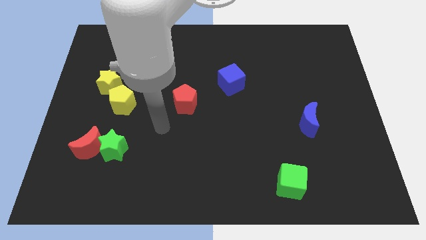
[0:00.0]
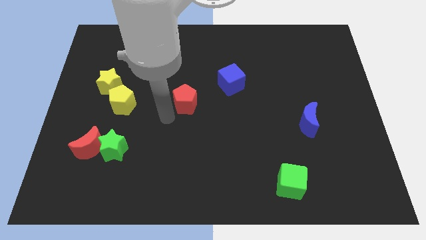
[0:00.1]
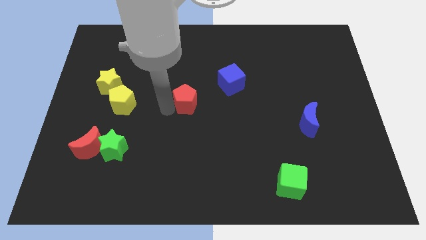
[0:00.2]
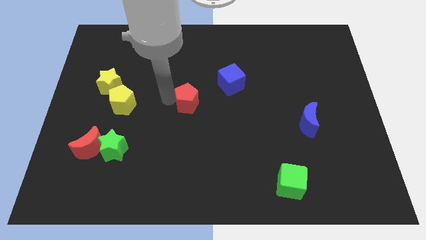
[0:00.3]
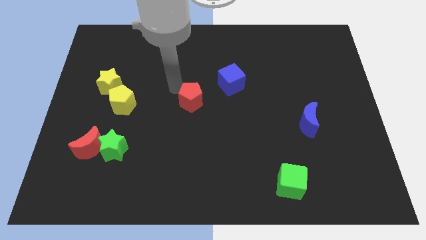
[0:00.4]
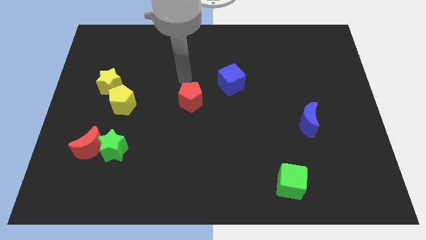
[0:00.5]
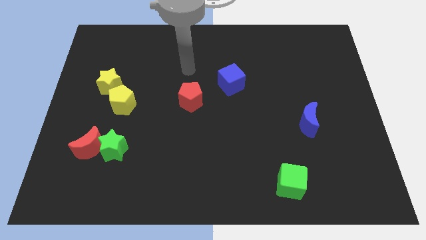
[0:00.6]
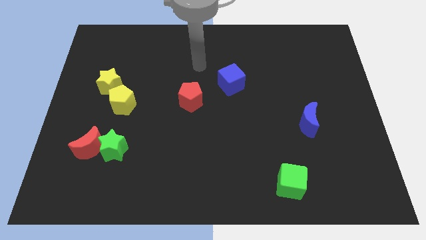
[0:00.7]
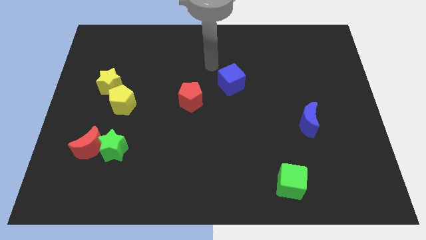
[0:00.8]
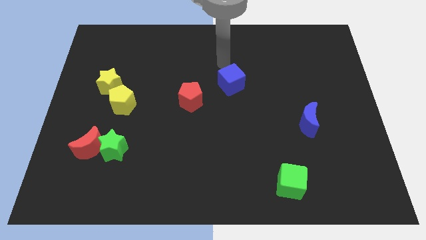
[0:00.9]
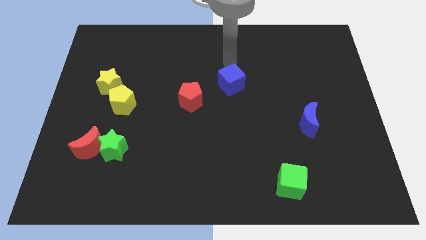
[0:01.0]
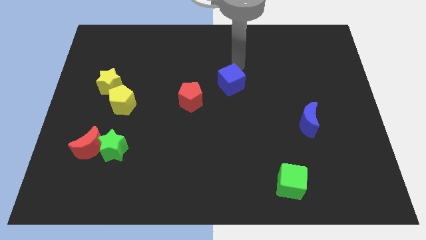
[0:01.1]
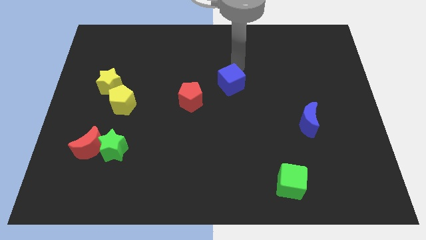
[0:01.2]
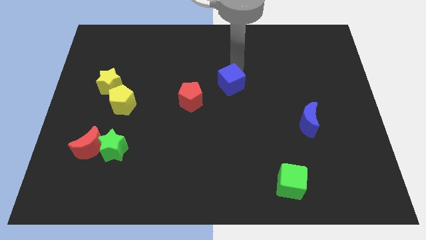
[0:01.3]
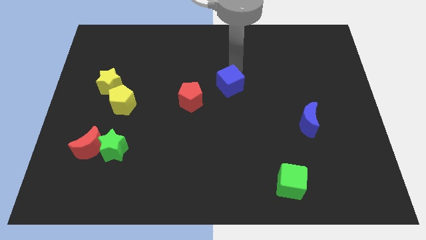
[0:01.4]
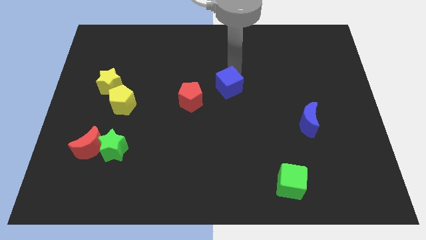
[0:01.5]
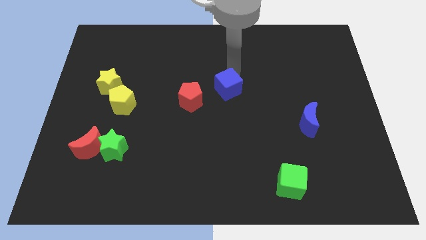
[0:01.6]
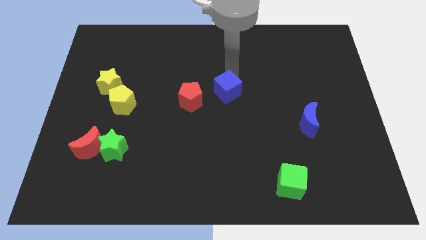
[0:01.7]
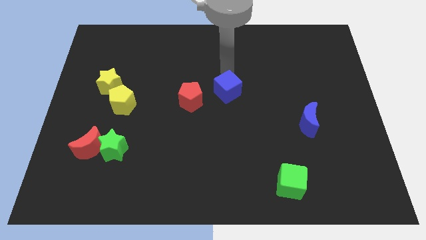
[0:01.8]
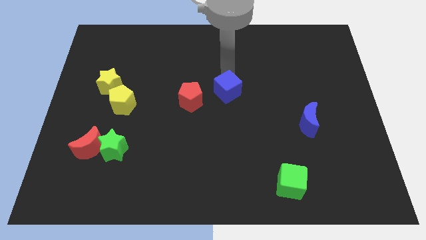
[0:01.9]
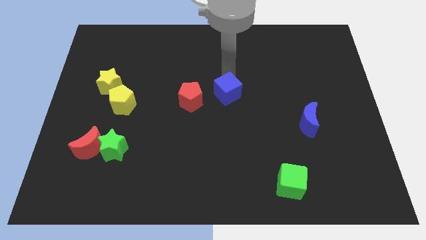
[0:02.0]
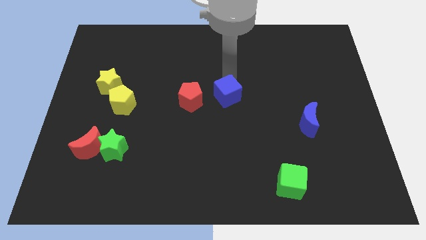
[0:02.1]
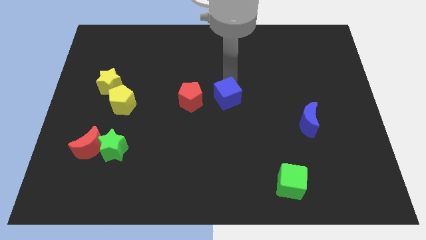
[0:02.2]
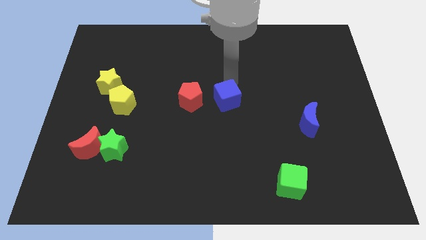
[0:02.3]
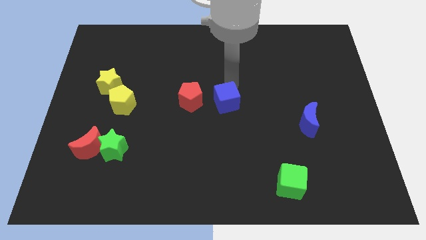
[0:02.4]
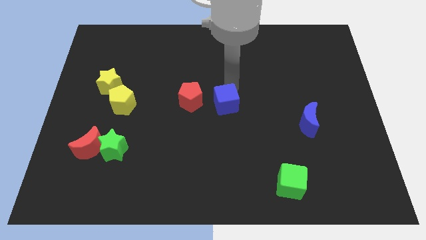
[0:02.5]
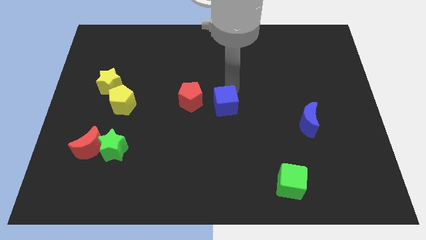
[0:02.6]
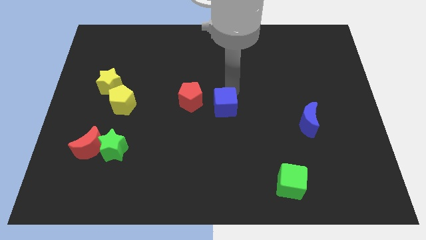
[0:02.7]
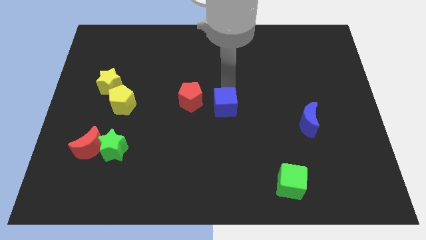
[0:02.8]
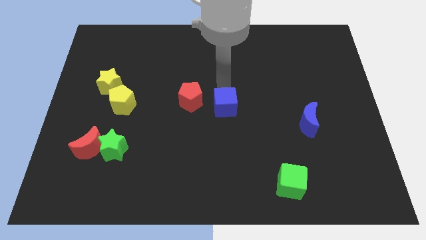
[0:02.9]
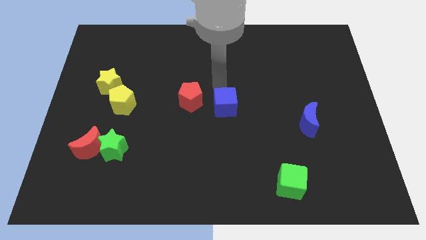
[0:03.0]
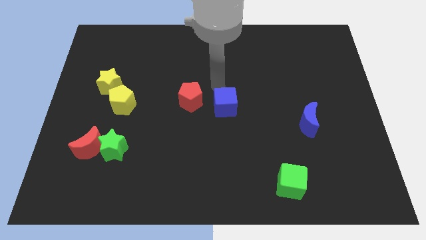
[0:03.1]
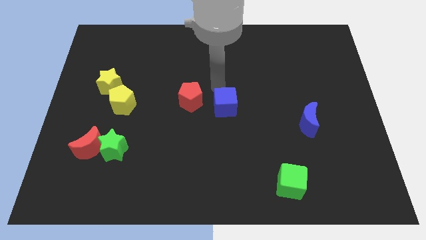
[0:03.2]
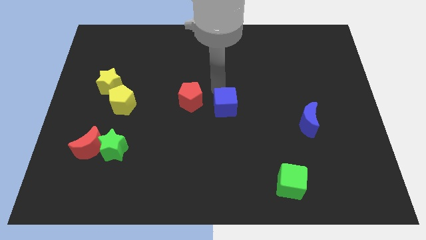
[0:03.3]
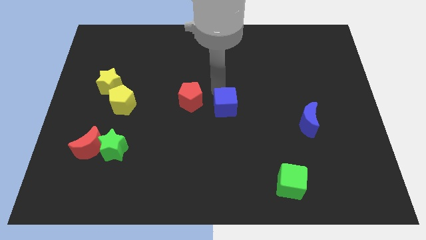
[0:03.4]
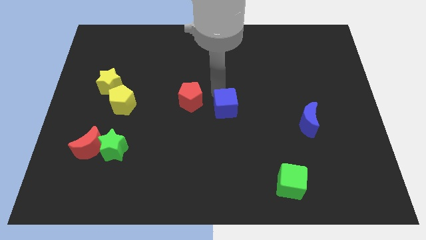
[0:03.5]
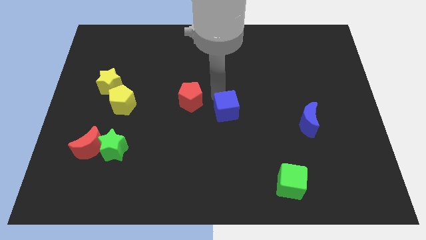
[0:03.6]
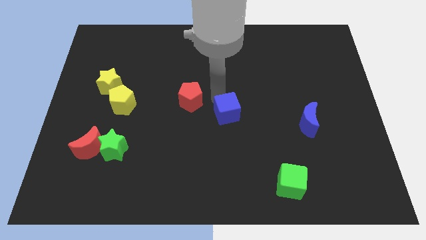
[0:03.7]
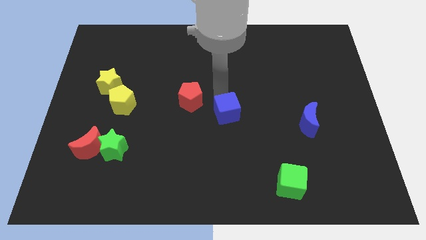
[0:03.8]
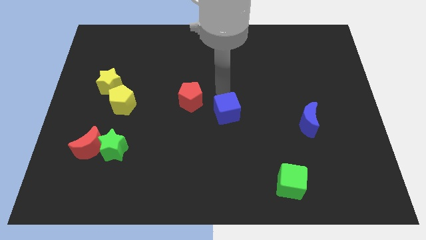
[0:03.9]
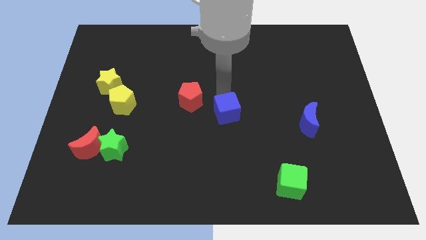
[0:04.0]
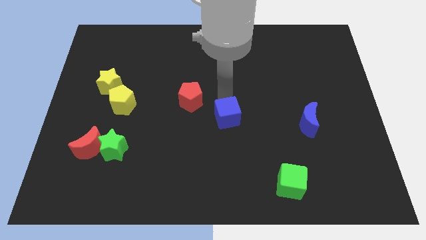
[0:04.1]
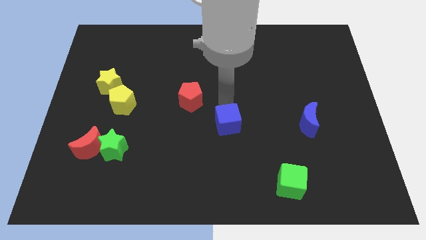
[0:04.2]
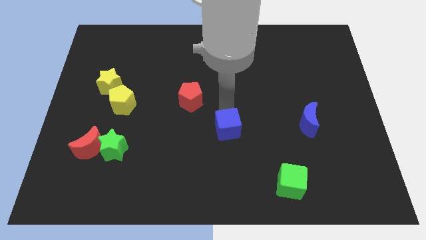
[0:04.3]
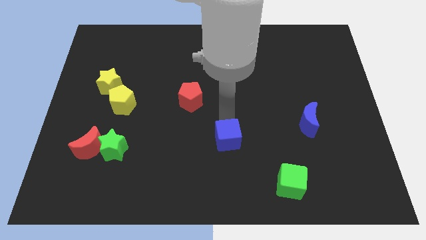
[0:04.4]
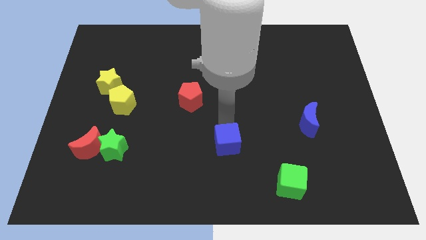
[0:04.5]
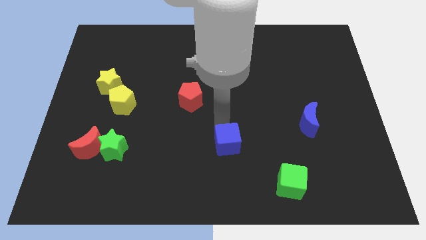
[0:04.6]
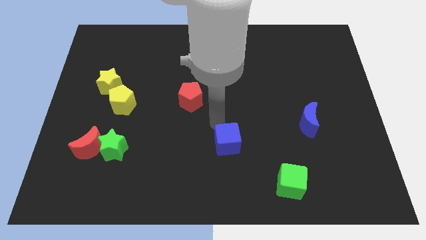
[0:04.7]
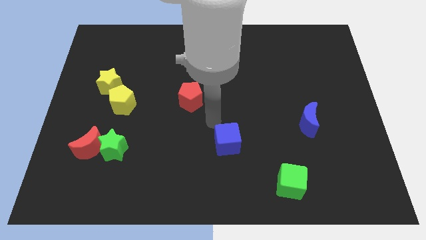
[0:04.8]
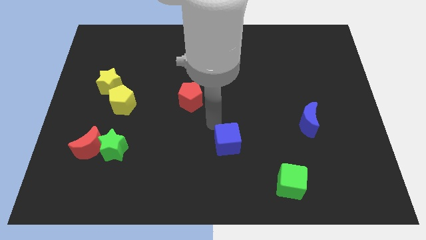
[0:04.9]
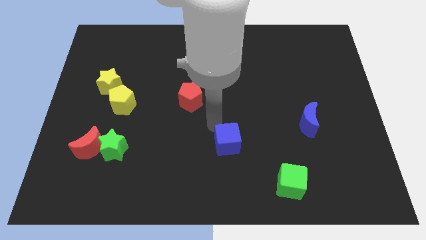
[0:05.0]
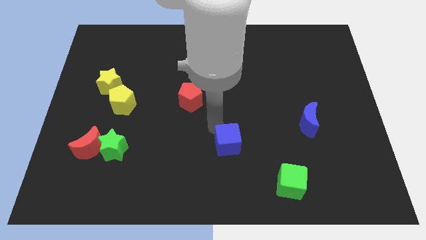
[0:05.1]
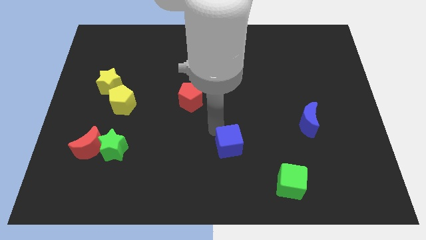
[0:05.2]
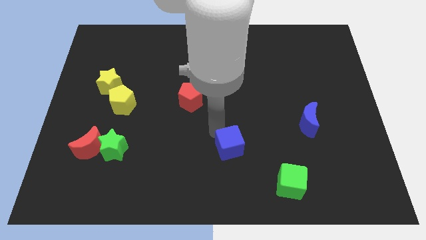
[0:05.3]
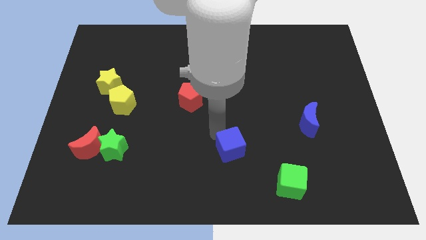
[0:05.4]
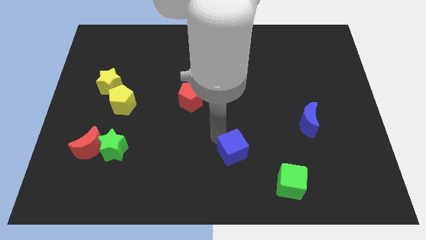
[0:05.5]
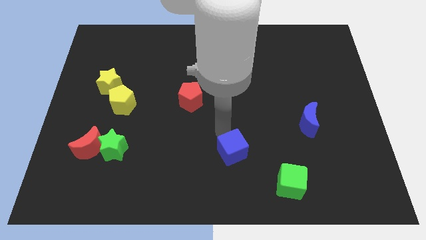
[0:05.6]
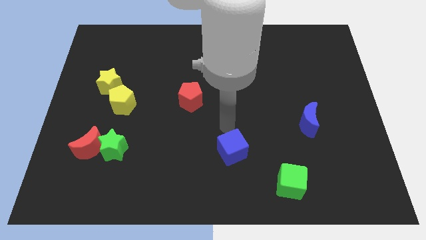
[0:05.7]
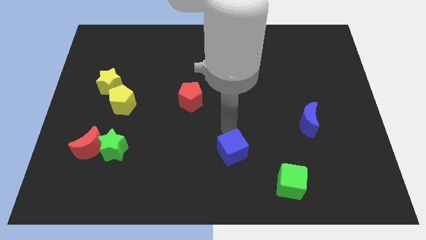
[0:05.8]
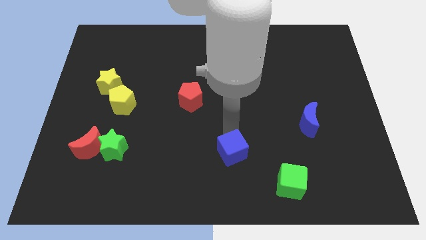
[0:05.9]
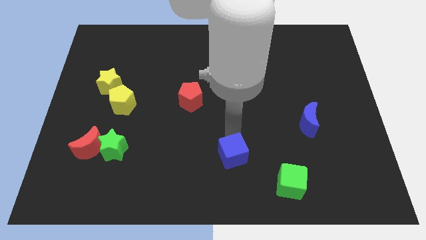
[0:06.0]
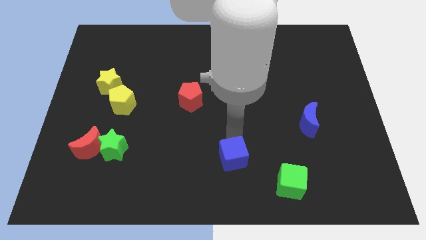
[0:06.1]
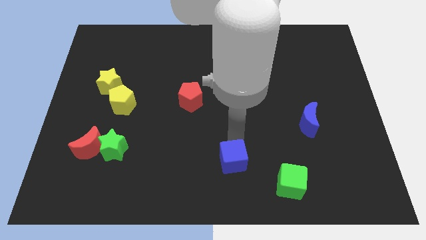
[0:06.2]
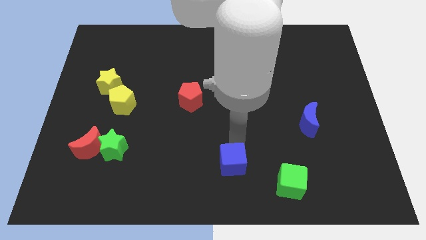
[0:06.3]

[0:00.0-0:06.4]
move the blue cube to the left of the green cube
